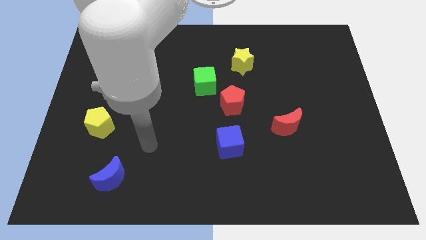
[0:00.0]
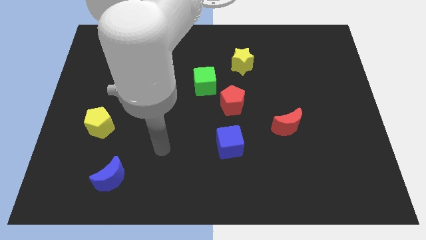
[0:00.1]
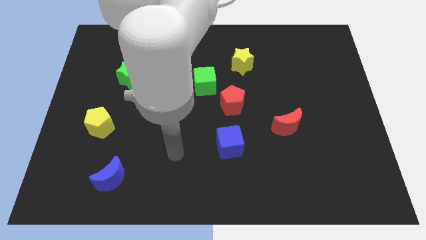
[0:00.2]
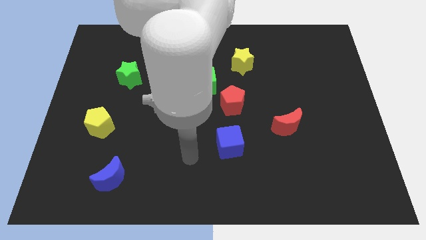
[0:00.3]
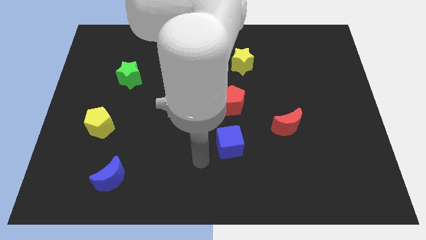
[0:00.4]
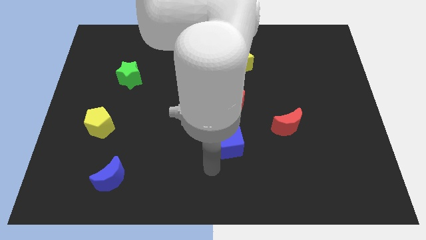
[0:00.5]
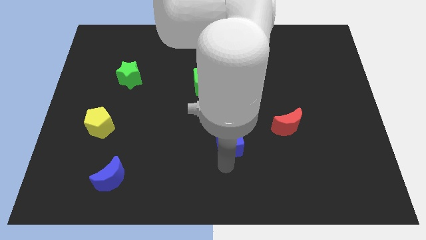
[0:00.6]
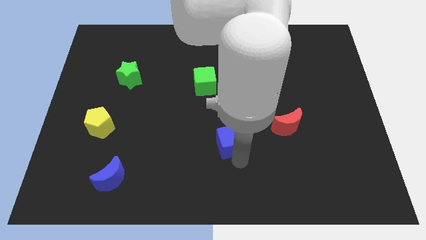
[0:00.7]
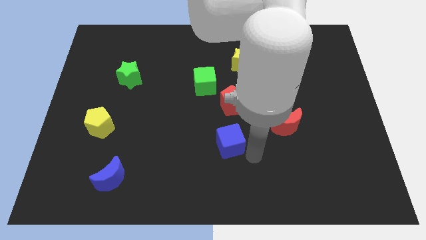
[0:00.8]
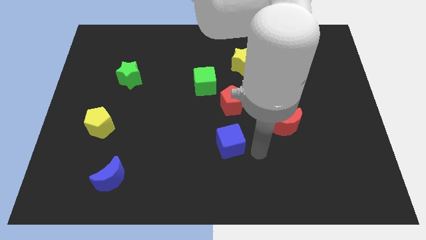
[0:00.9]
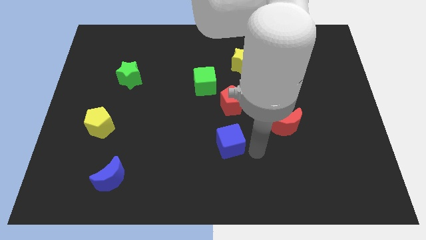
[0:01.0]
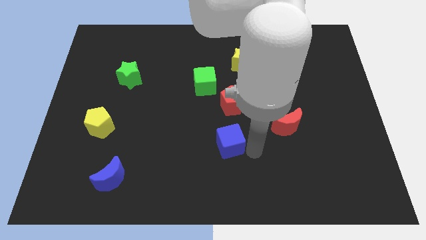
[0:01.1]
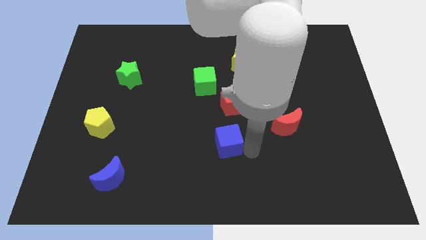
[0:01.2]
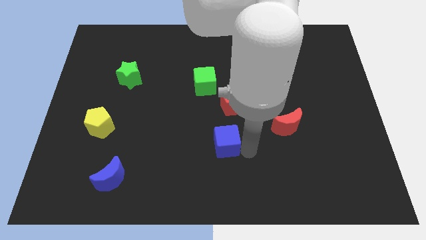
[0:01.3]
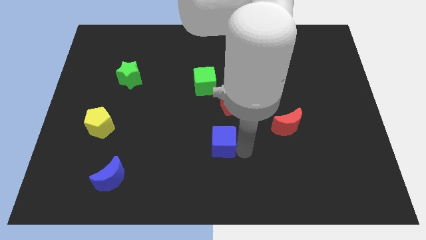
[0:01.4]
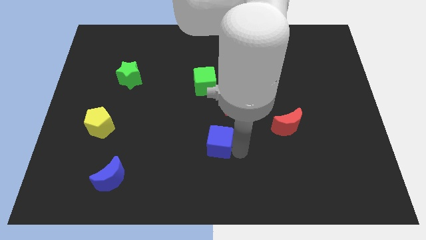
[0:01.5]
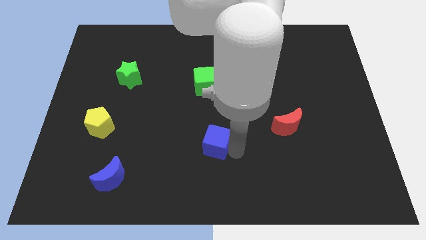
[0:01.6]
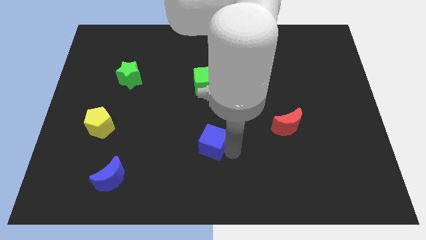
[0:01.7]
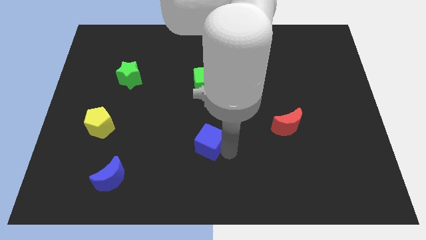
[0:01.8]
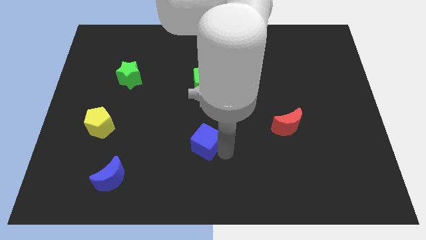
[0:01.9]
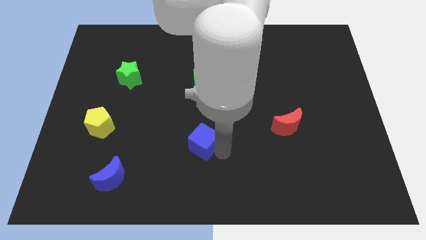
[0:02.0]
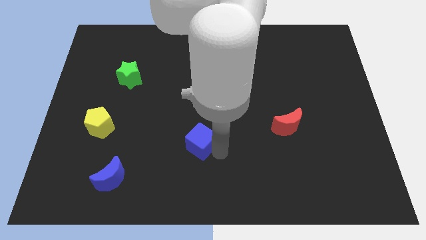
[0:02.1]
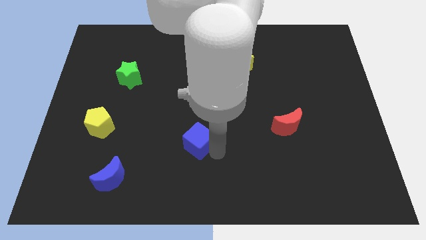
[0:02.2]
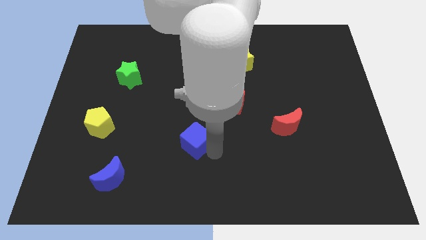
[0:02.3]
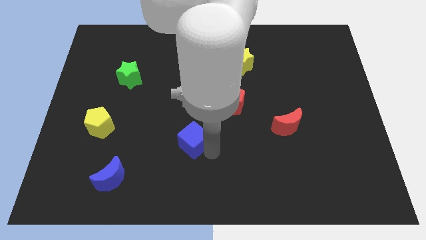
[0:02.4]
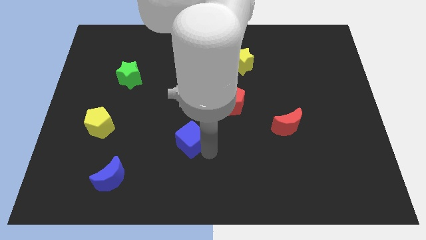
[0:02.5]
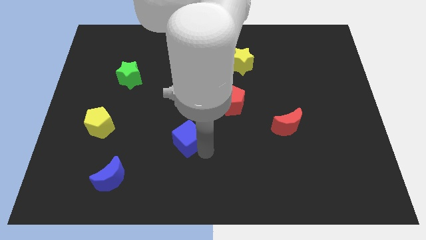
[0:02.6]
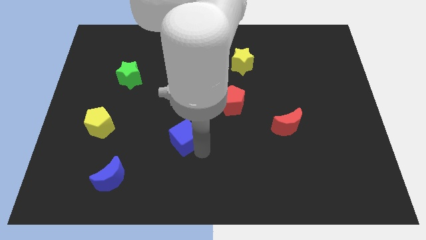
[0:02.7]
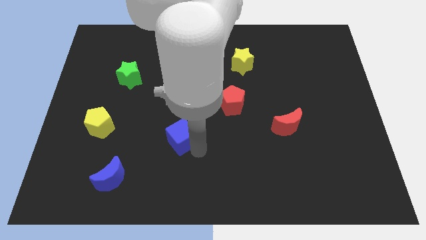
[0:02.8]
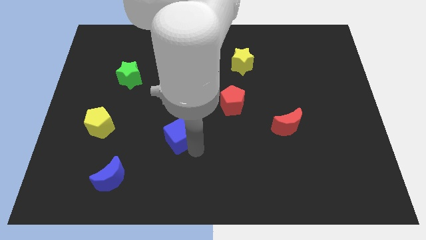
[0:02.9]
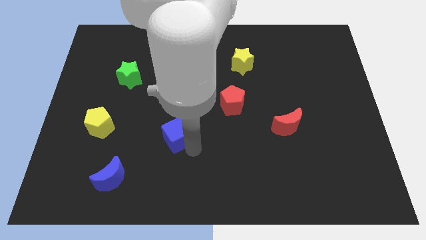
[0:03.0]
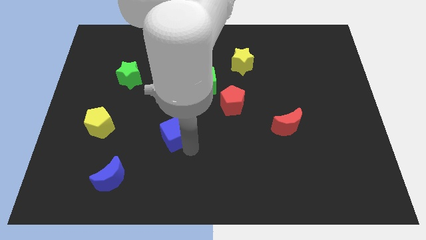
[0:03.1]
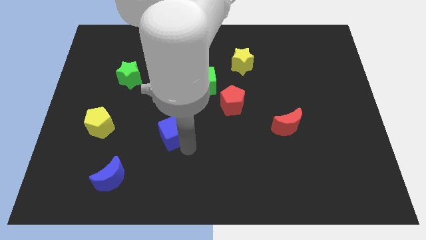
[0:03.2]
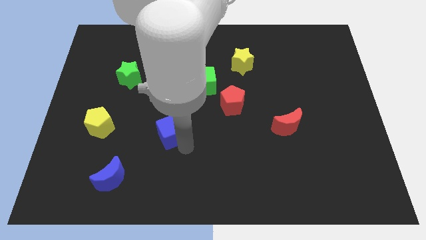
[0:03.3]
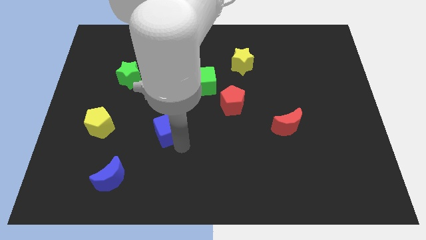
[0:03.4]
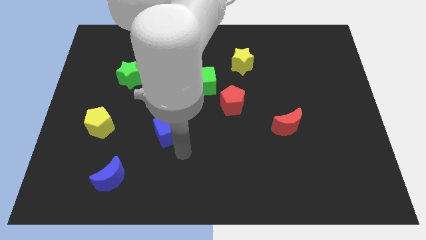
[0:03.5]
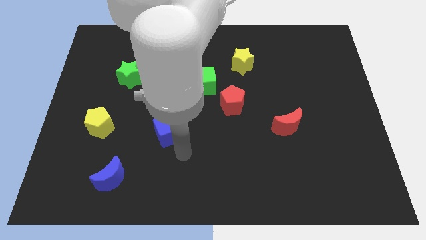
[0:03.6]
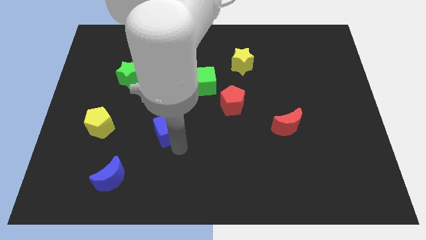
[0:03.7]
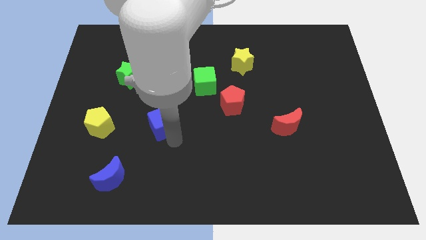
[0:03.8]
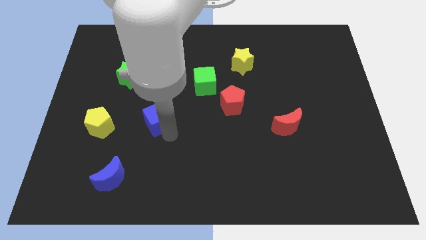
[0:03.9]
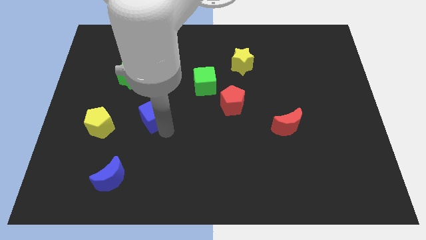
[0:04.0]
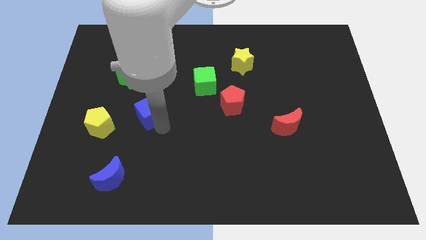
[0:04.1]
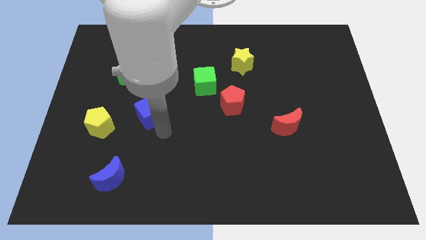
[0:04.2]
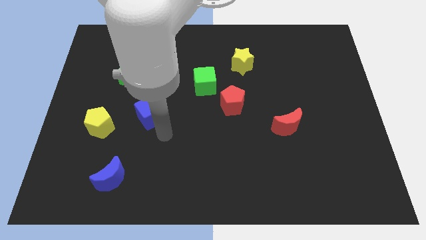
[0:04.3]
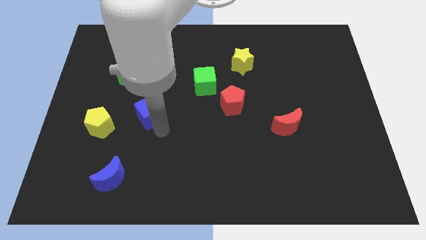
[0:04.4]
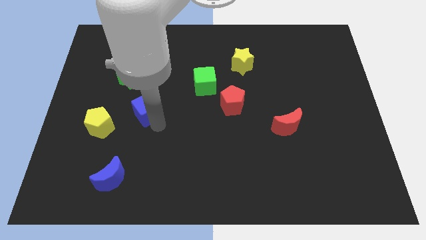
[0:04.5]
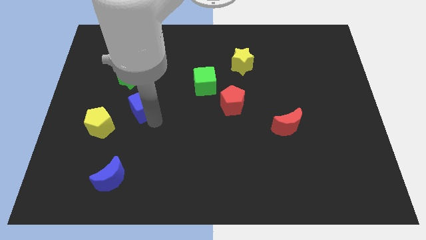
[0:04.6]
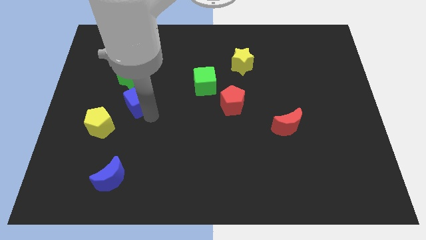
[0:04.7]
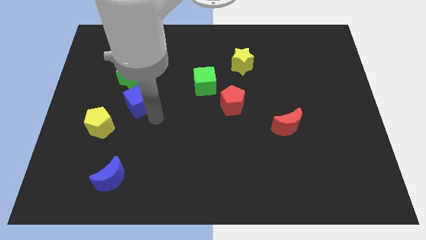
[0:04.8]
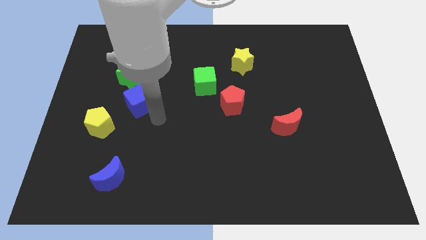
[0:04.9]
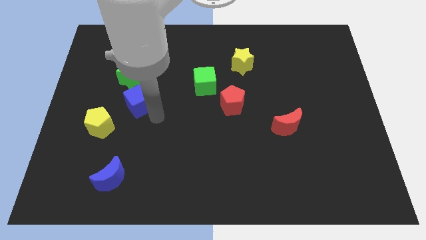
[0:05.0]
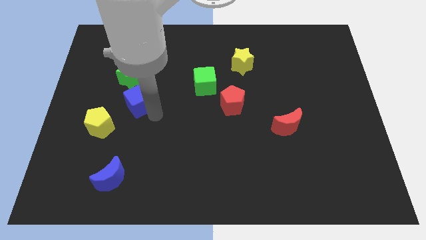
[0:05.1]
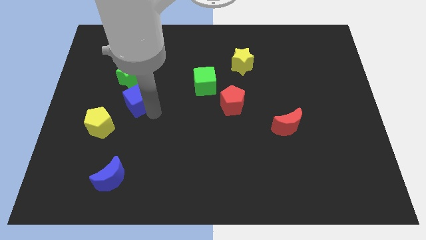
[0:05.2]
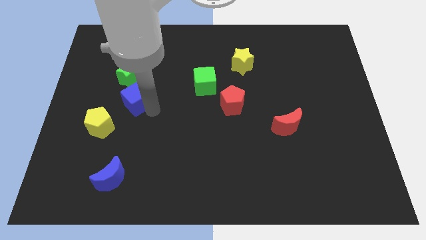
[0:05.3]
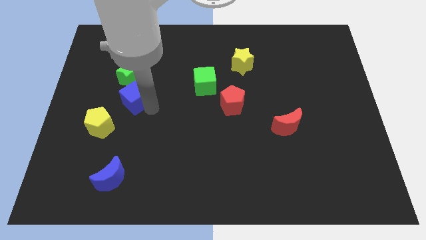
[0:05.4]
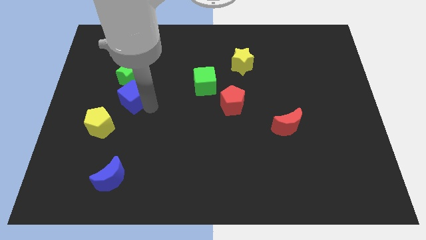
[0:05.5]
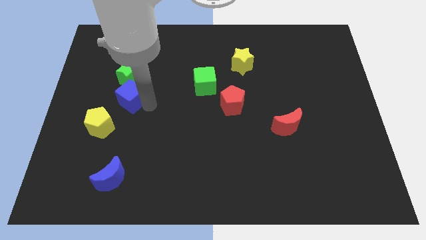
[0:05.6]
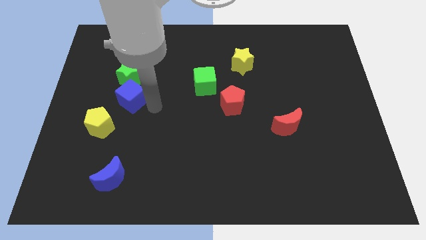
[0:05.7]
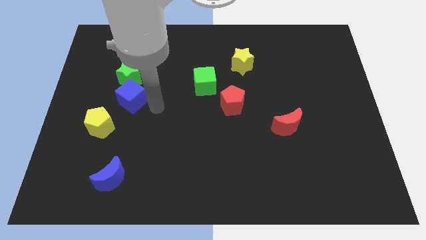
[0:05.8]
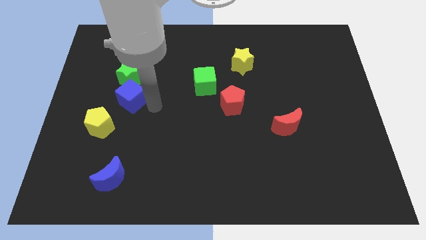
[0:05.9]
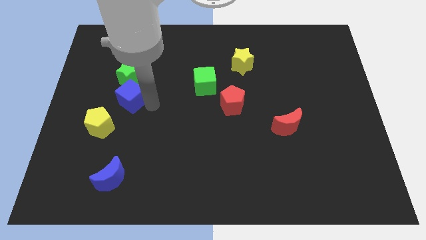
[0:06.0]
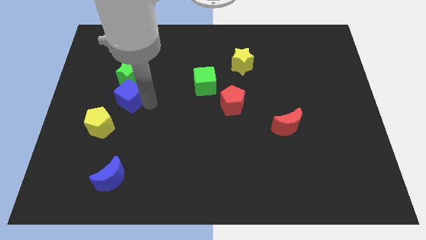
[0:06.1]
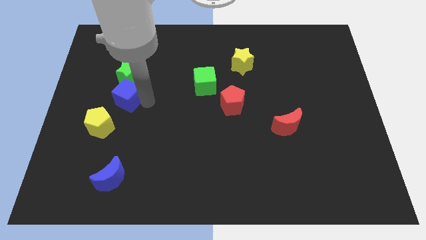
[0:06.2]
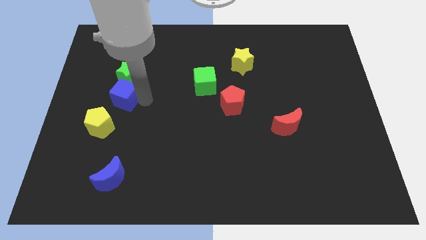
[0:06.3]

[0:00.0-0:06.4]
move the blue cube to the top side of the yellow pentagon

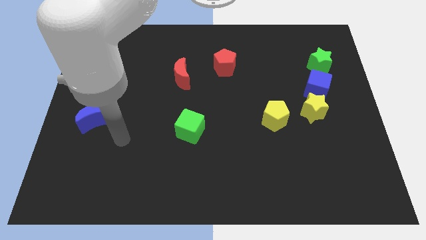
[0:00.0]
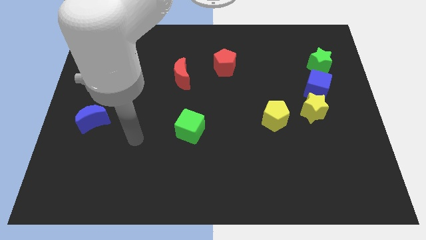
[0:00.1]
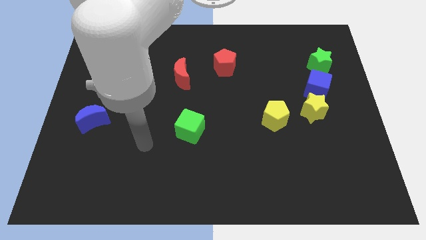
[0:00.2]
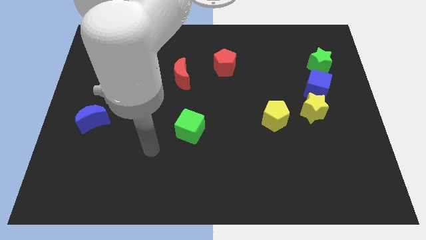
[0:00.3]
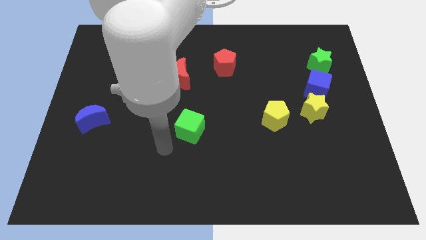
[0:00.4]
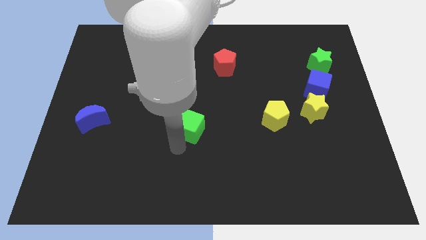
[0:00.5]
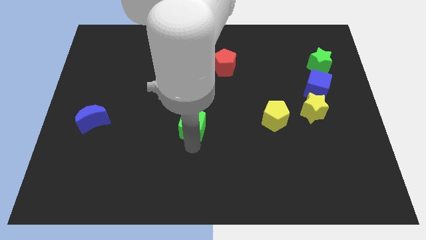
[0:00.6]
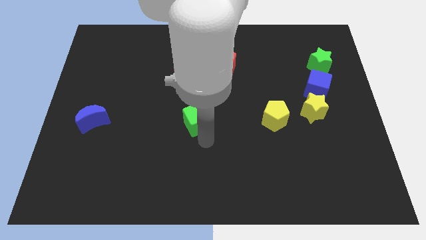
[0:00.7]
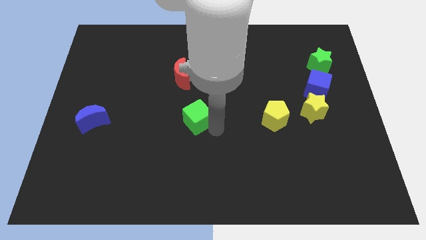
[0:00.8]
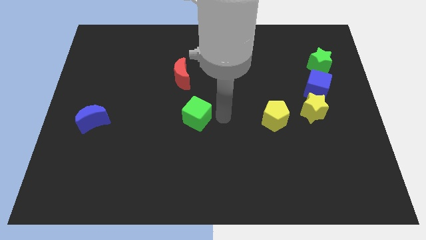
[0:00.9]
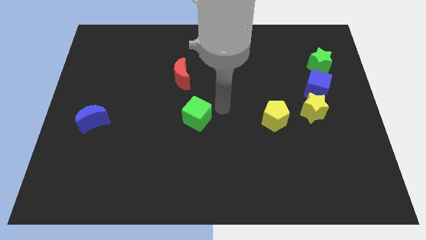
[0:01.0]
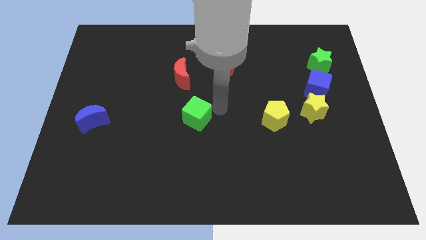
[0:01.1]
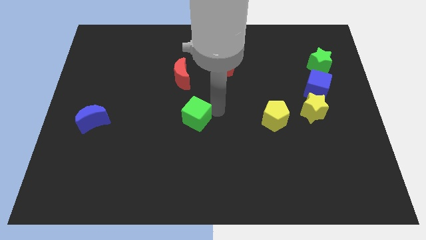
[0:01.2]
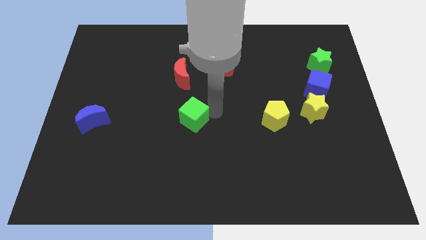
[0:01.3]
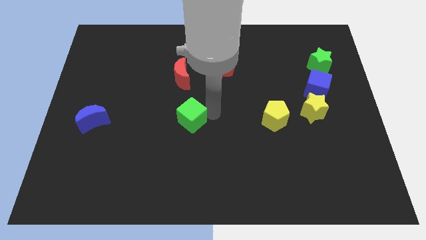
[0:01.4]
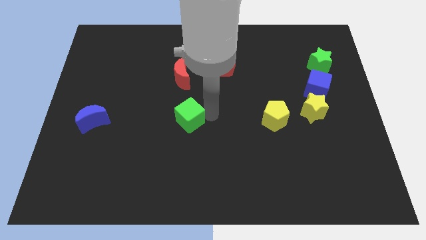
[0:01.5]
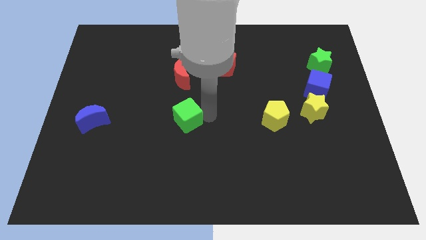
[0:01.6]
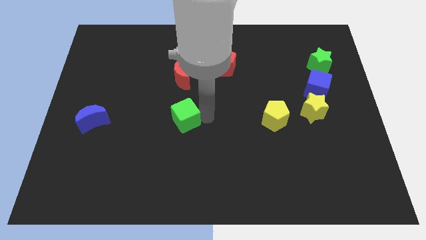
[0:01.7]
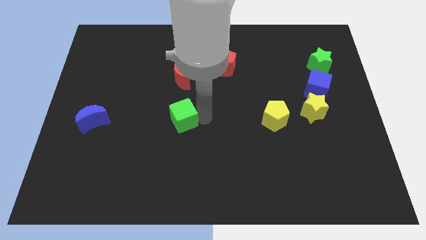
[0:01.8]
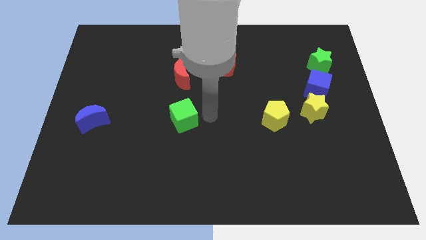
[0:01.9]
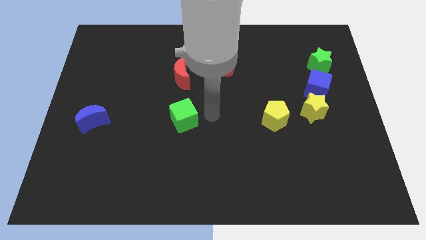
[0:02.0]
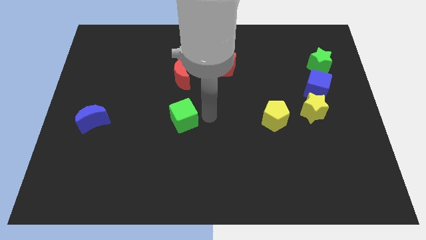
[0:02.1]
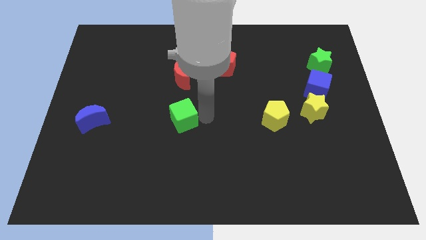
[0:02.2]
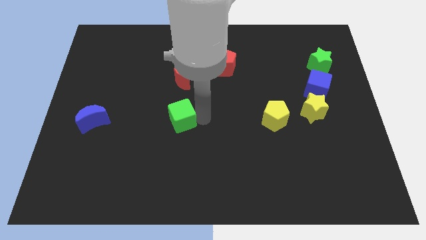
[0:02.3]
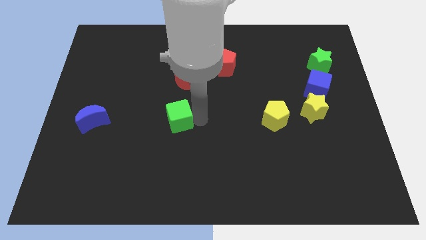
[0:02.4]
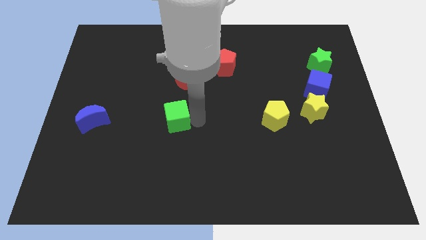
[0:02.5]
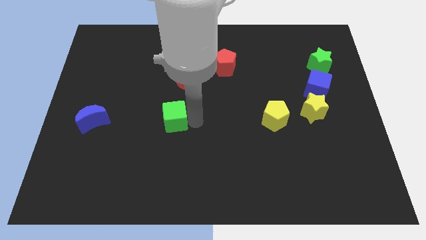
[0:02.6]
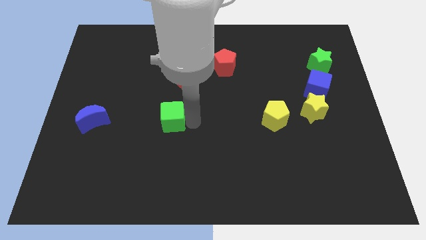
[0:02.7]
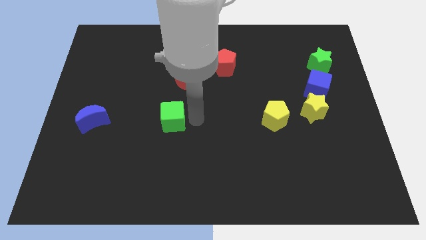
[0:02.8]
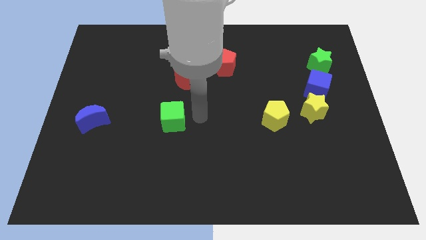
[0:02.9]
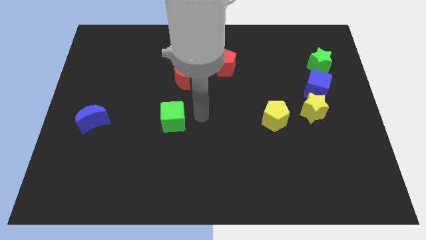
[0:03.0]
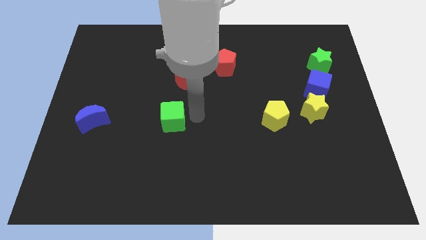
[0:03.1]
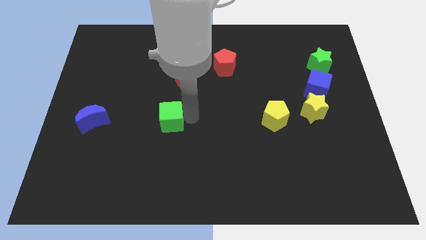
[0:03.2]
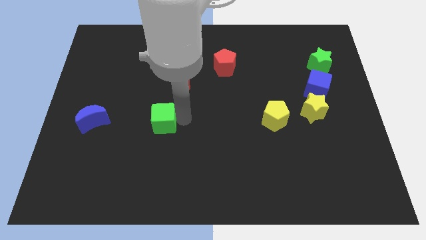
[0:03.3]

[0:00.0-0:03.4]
push the green cube right of the blue moon
